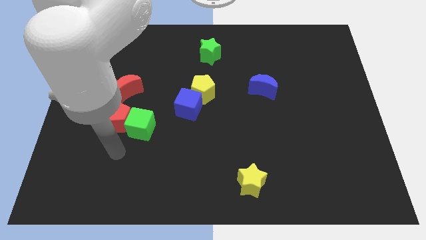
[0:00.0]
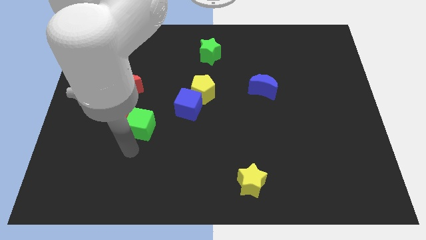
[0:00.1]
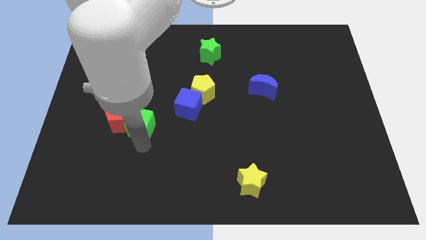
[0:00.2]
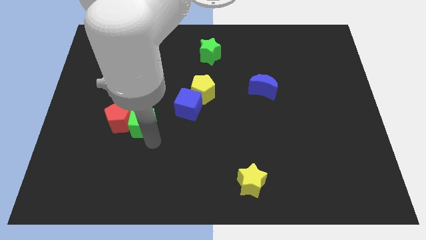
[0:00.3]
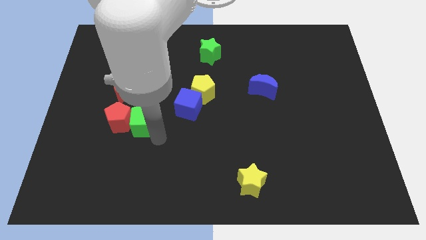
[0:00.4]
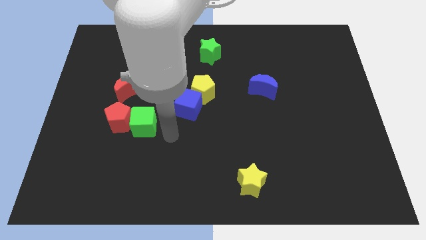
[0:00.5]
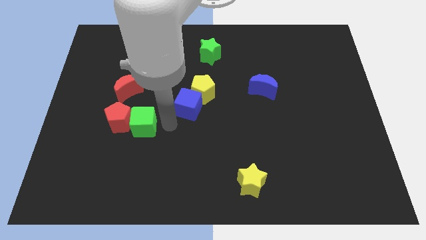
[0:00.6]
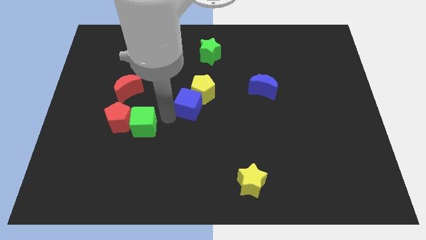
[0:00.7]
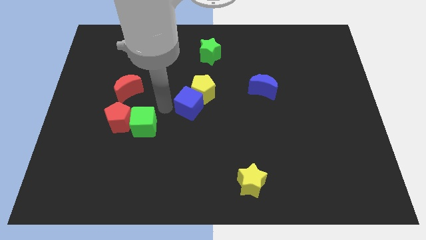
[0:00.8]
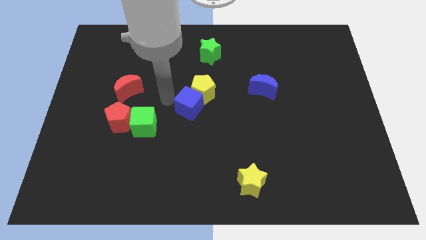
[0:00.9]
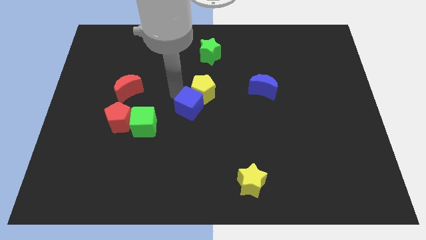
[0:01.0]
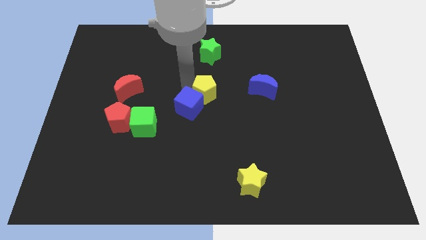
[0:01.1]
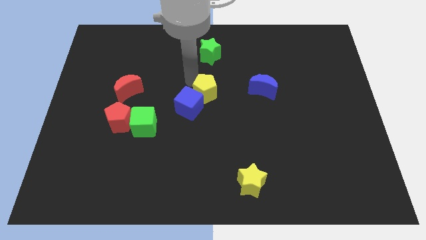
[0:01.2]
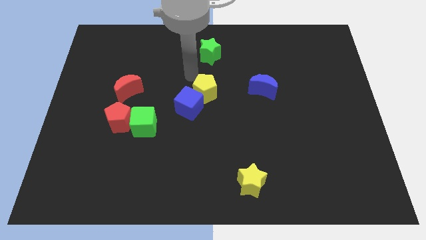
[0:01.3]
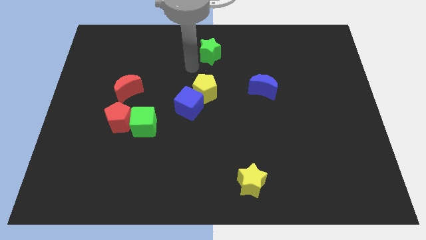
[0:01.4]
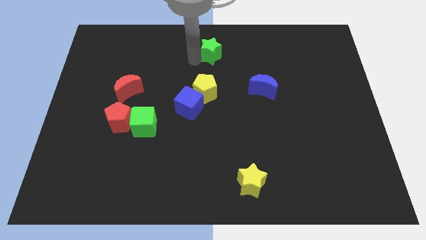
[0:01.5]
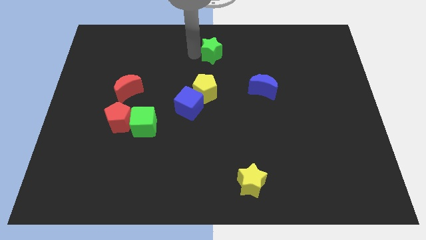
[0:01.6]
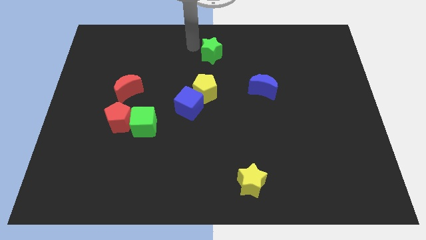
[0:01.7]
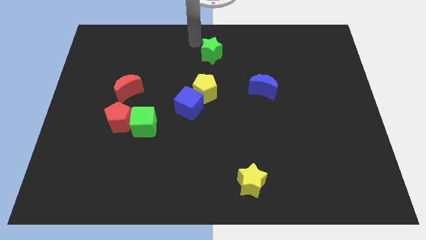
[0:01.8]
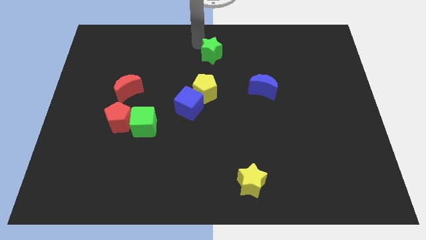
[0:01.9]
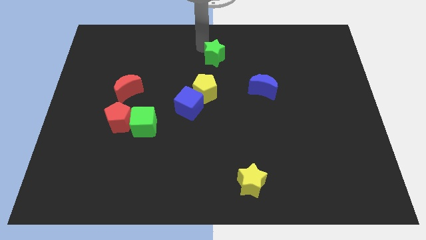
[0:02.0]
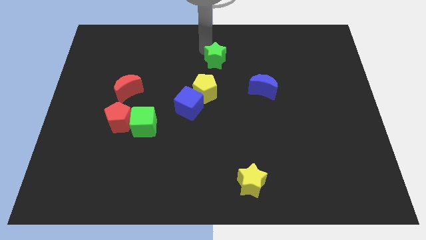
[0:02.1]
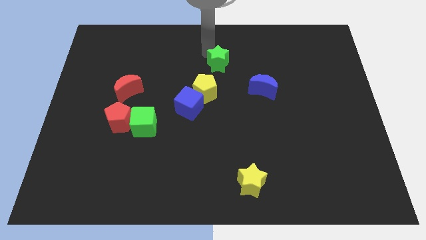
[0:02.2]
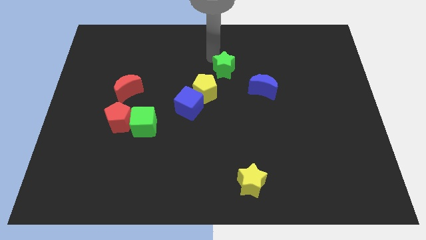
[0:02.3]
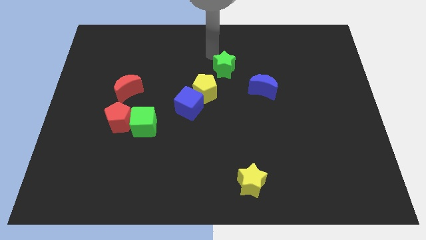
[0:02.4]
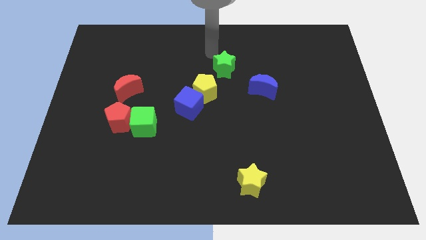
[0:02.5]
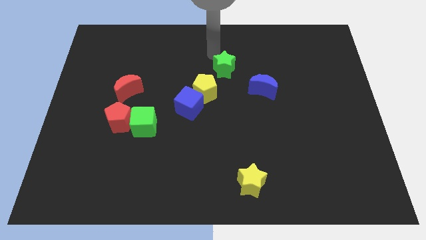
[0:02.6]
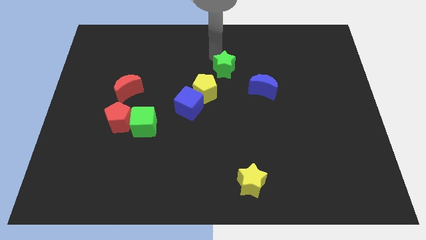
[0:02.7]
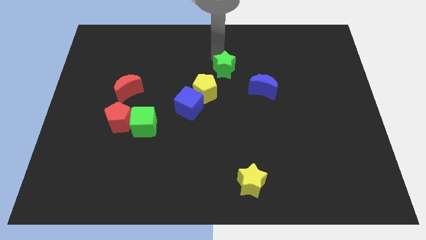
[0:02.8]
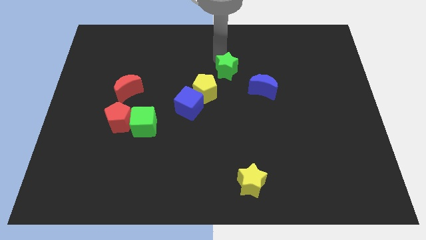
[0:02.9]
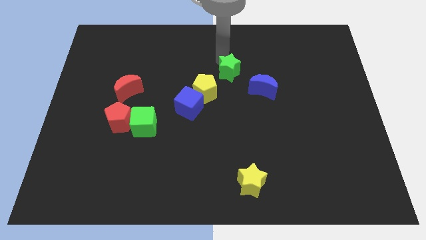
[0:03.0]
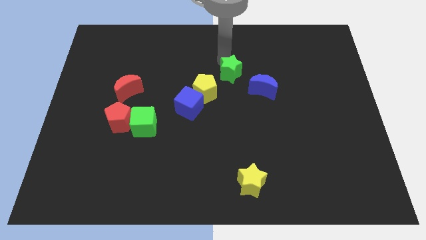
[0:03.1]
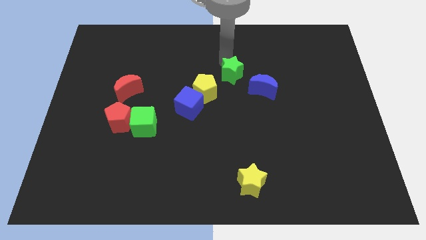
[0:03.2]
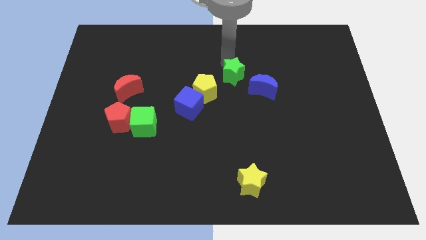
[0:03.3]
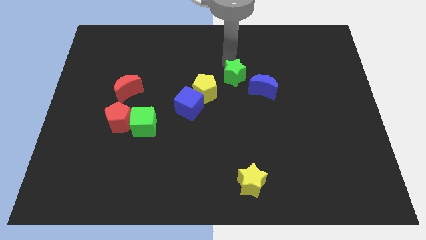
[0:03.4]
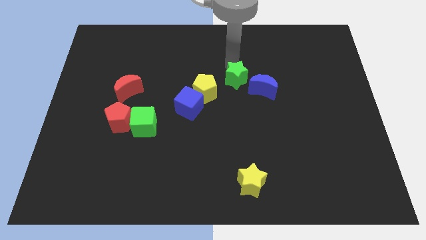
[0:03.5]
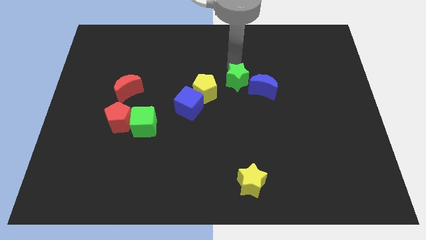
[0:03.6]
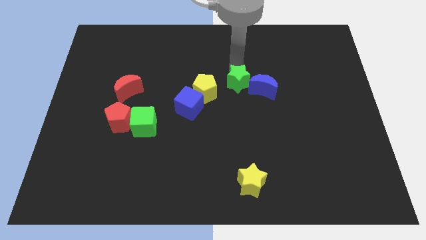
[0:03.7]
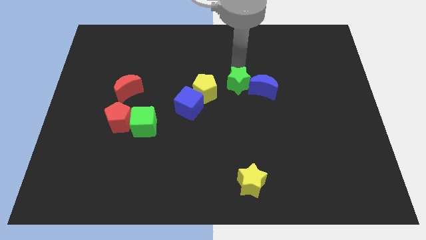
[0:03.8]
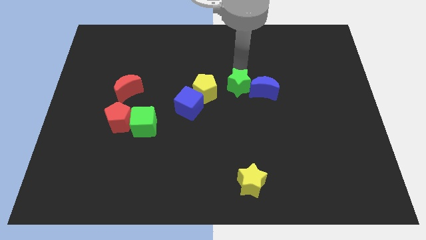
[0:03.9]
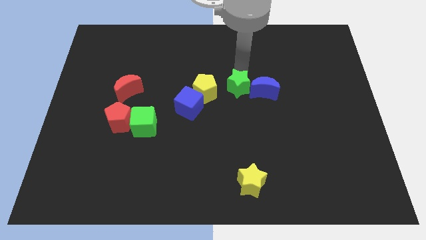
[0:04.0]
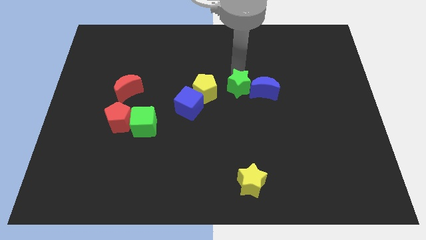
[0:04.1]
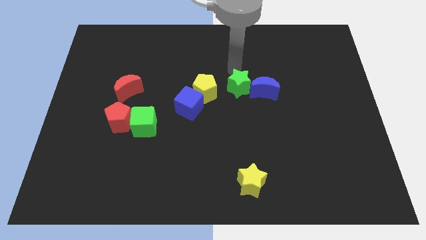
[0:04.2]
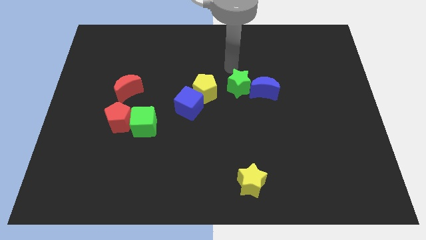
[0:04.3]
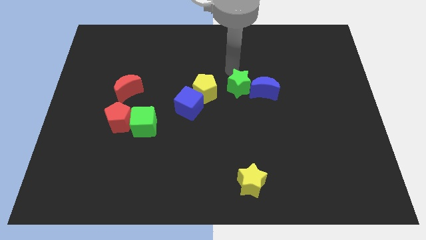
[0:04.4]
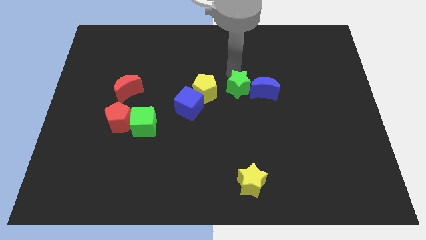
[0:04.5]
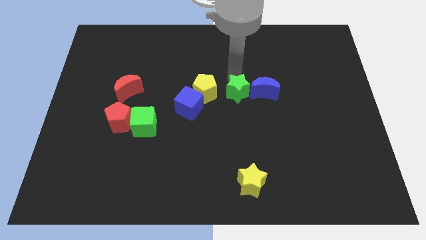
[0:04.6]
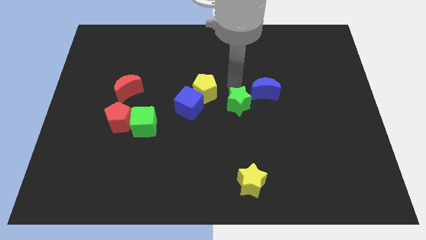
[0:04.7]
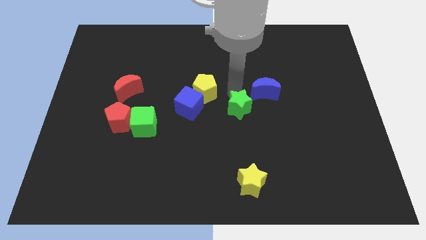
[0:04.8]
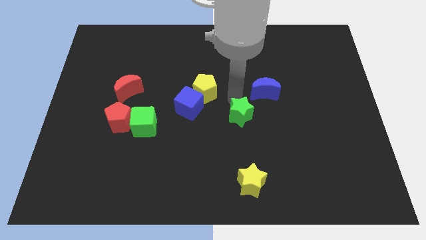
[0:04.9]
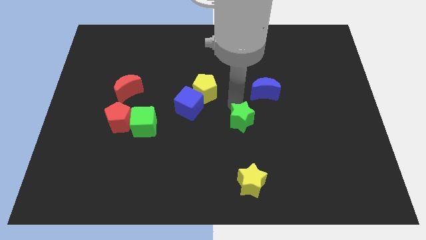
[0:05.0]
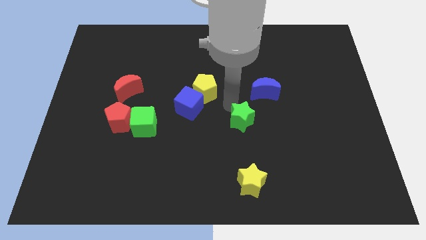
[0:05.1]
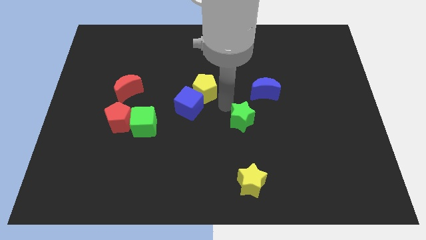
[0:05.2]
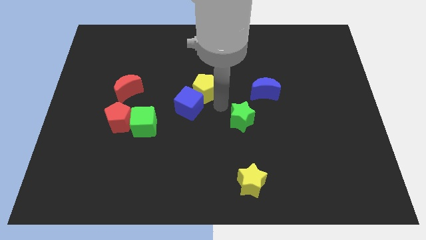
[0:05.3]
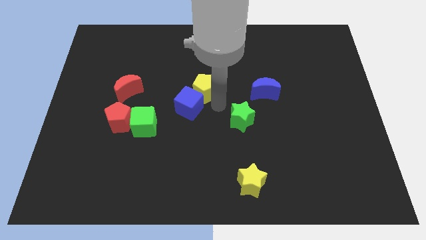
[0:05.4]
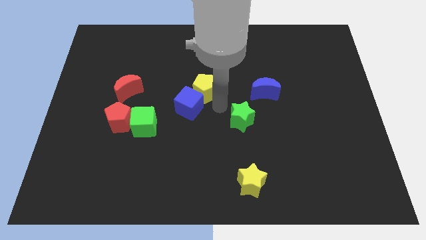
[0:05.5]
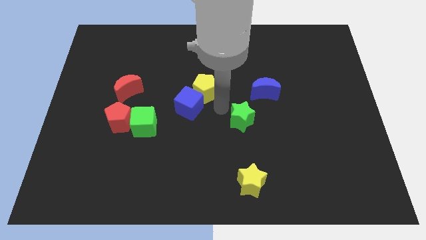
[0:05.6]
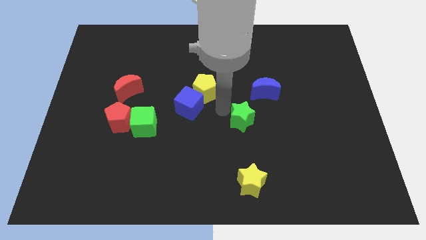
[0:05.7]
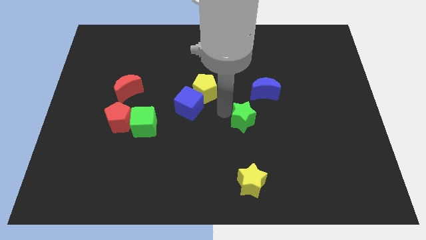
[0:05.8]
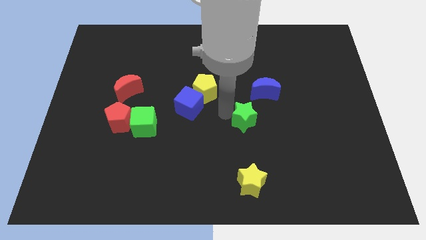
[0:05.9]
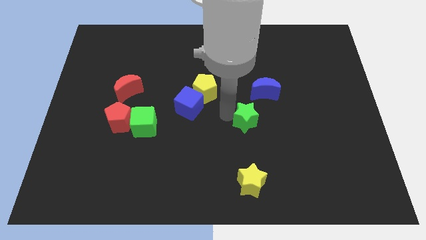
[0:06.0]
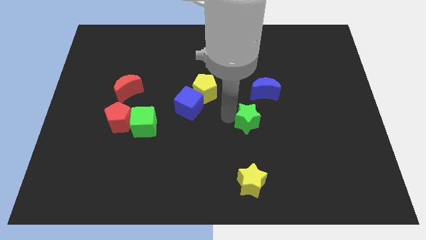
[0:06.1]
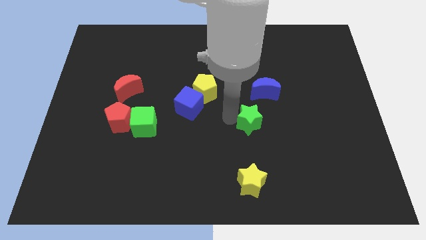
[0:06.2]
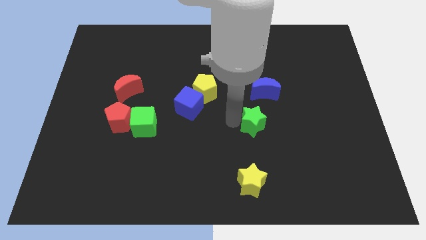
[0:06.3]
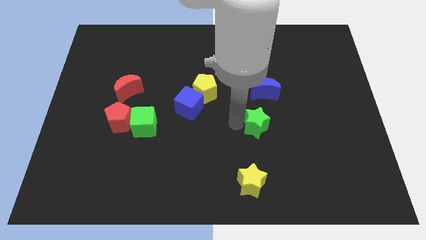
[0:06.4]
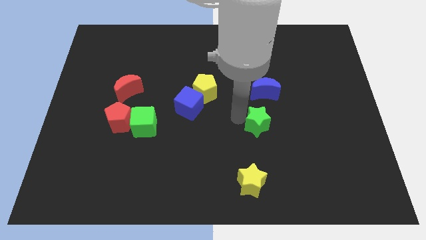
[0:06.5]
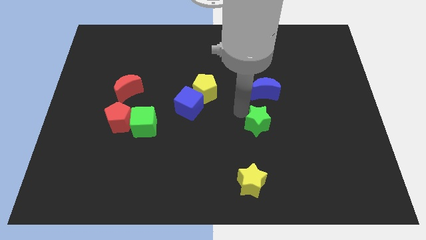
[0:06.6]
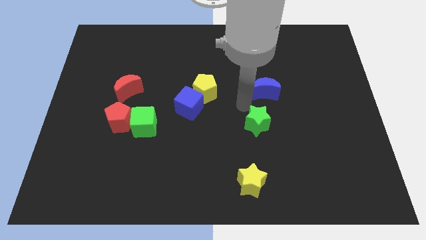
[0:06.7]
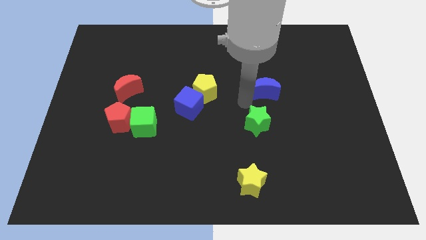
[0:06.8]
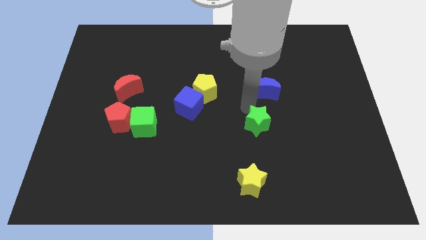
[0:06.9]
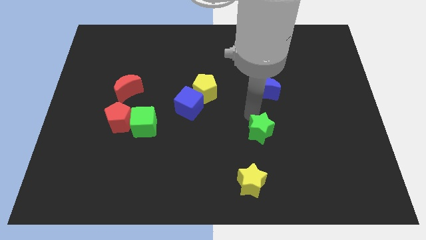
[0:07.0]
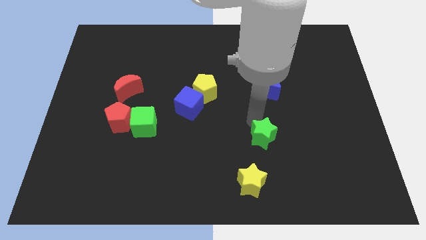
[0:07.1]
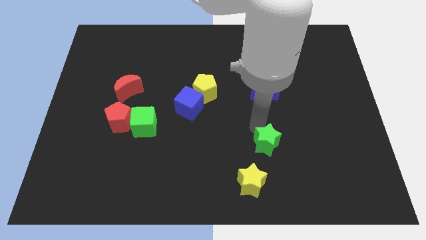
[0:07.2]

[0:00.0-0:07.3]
move the green star diagonally up and to the right of the yellow star
